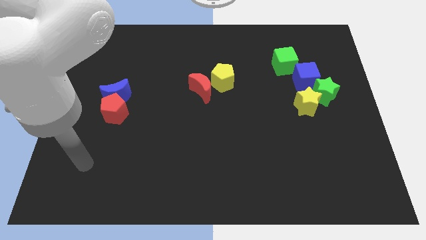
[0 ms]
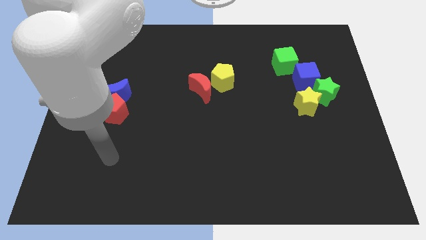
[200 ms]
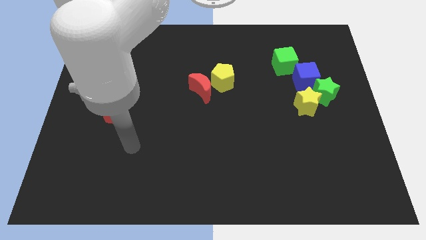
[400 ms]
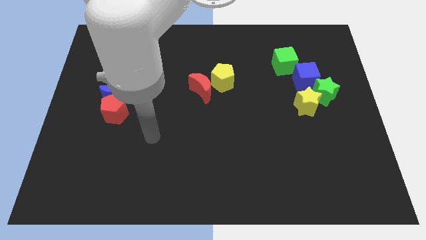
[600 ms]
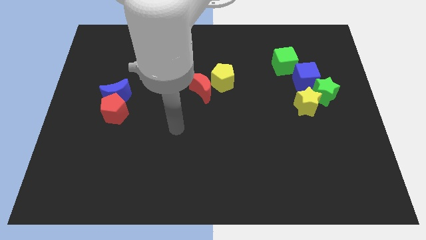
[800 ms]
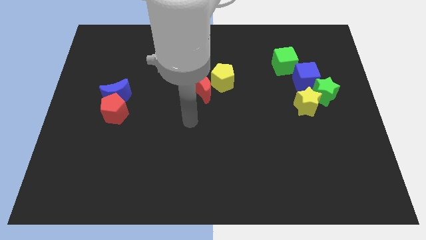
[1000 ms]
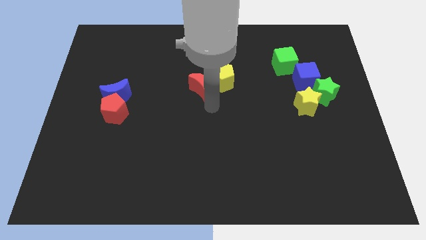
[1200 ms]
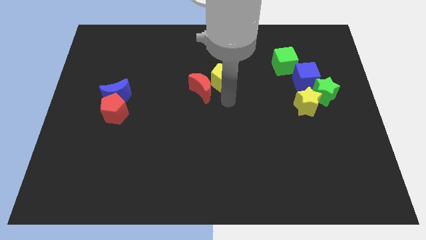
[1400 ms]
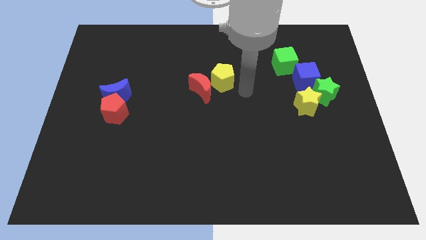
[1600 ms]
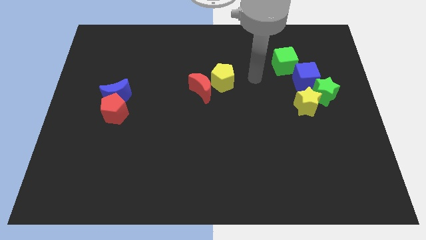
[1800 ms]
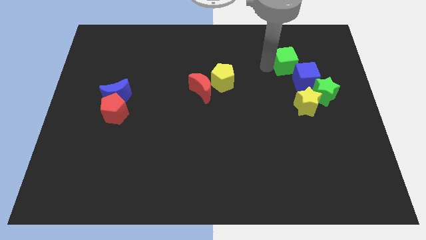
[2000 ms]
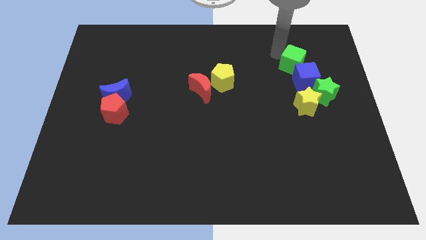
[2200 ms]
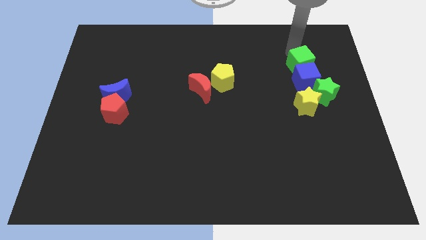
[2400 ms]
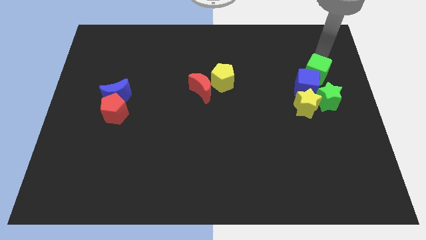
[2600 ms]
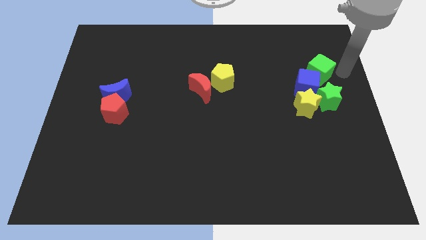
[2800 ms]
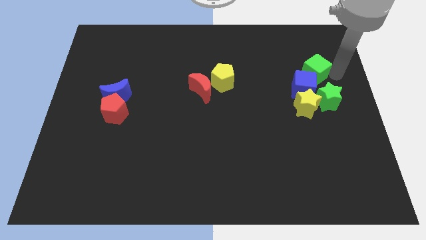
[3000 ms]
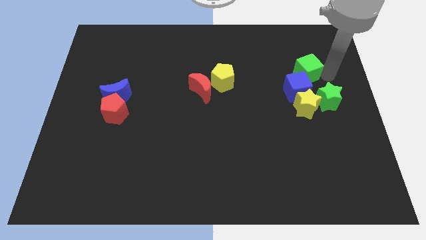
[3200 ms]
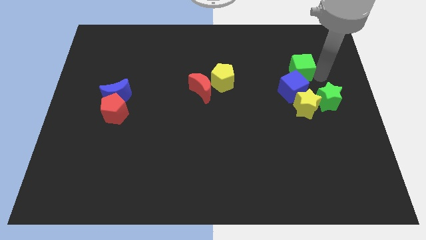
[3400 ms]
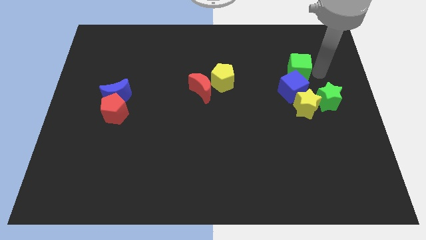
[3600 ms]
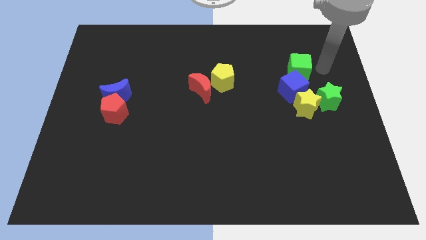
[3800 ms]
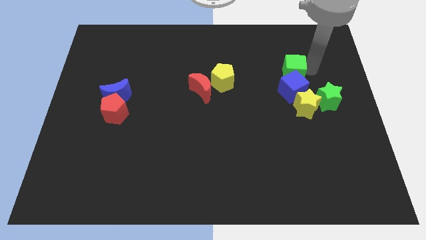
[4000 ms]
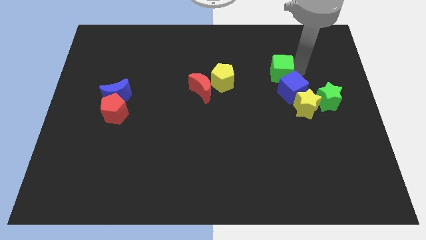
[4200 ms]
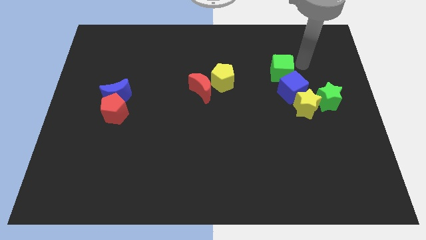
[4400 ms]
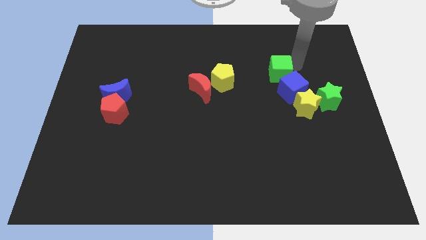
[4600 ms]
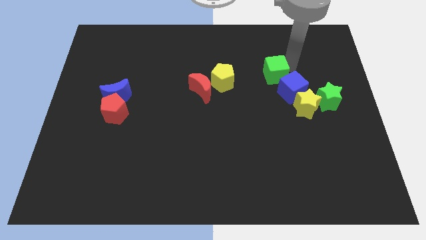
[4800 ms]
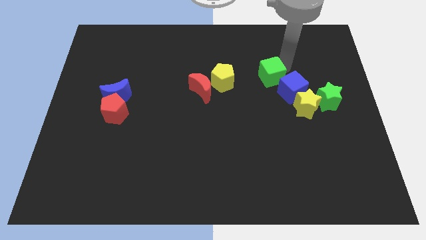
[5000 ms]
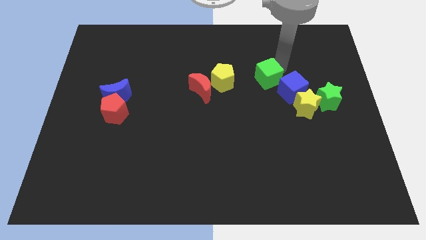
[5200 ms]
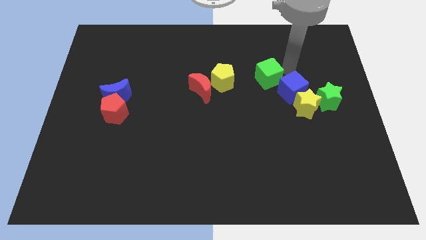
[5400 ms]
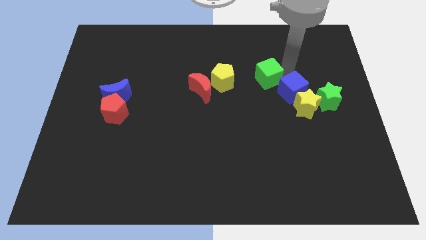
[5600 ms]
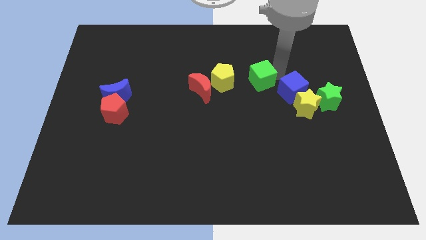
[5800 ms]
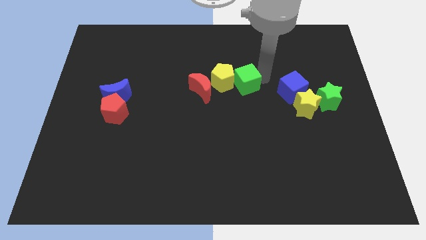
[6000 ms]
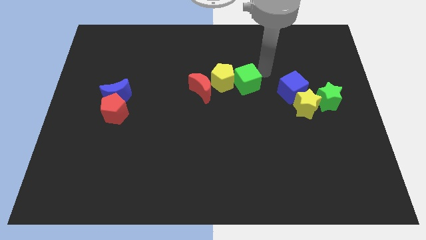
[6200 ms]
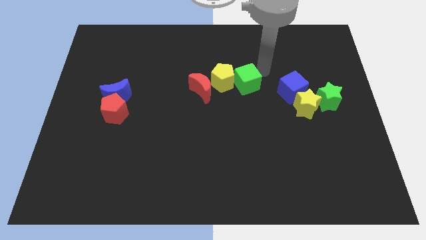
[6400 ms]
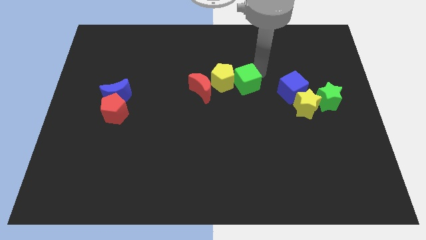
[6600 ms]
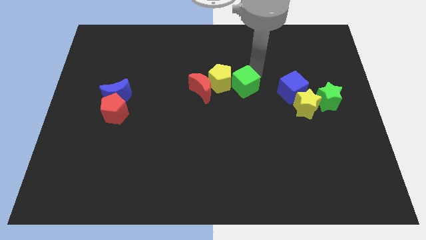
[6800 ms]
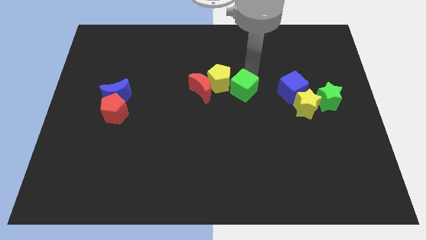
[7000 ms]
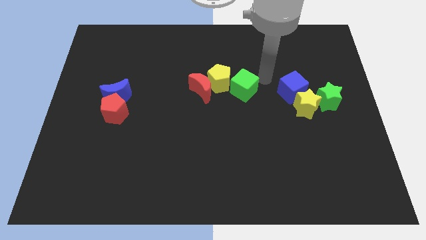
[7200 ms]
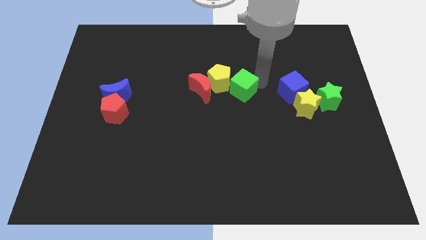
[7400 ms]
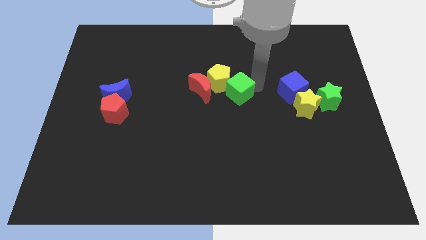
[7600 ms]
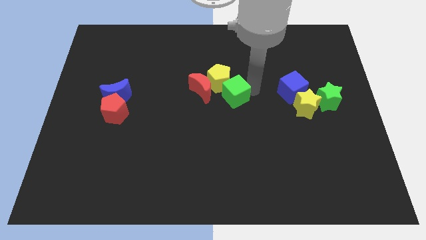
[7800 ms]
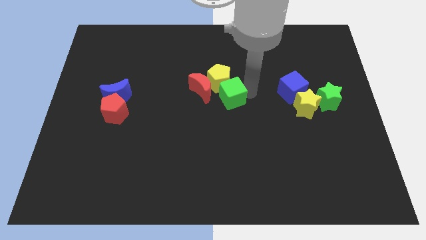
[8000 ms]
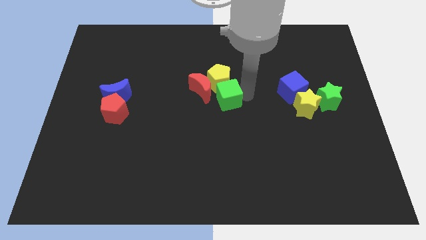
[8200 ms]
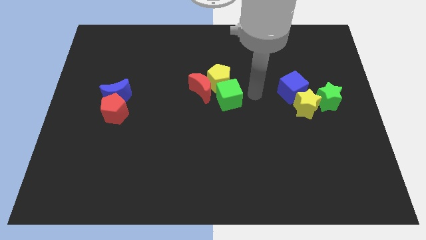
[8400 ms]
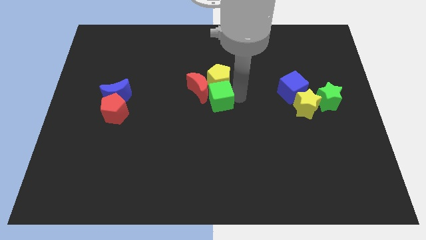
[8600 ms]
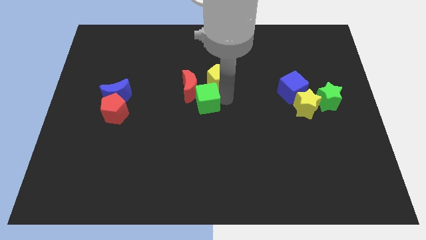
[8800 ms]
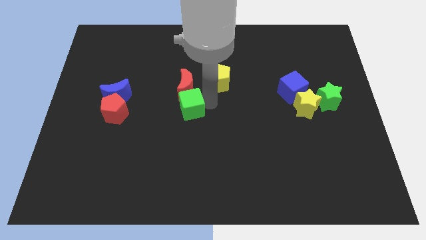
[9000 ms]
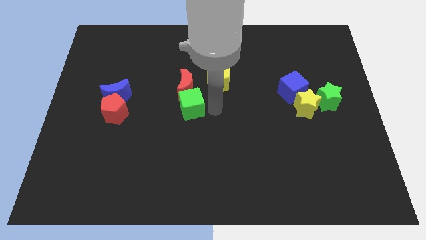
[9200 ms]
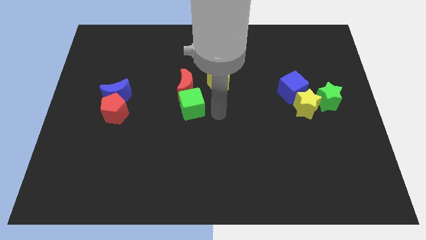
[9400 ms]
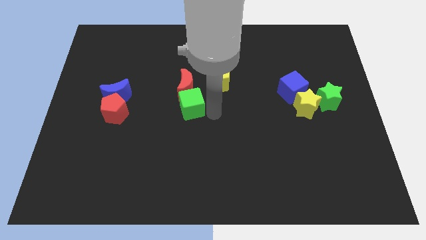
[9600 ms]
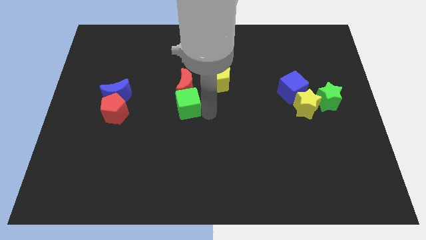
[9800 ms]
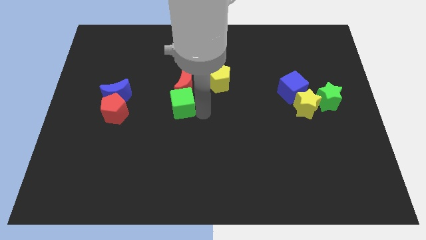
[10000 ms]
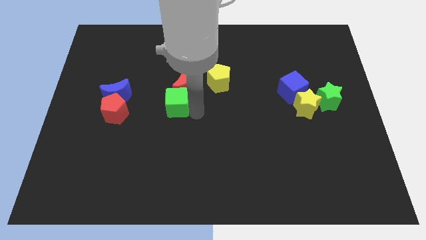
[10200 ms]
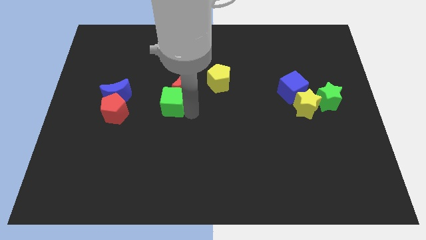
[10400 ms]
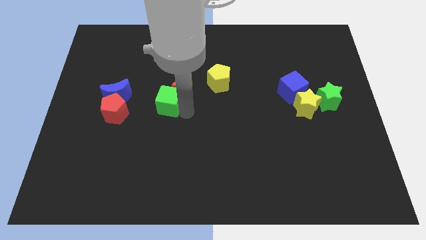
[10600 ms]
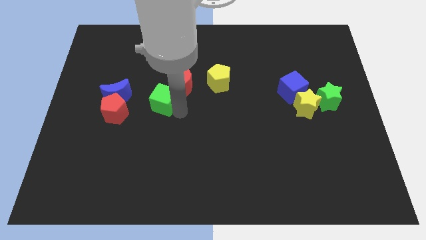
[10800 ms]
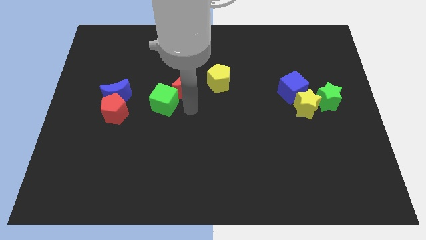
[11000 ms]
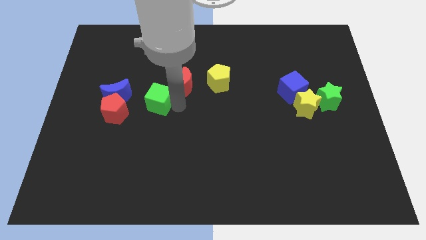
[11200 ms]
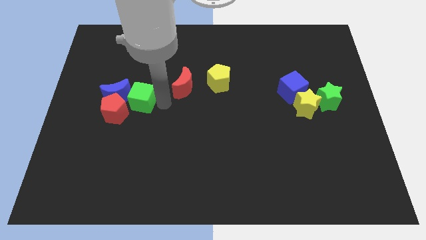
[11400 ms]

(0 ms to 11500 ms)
slide the green cube towards the blue moon

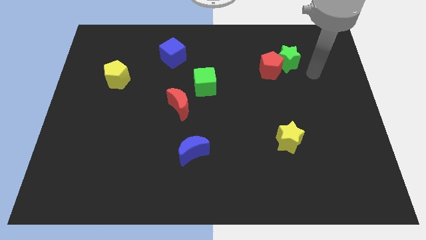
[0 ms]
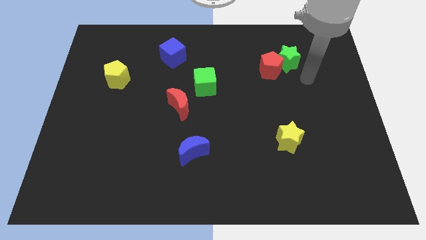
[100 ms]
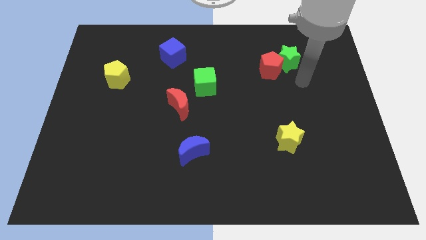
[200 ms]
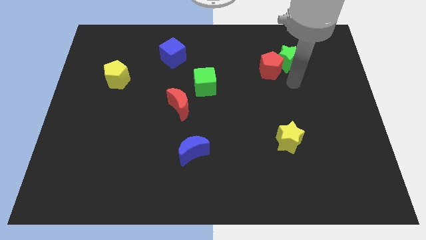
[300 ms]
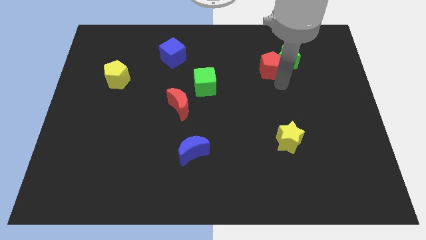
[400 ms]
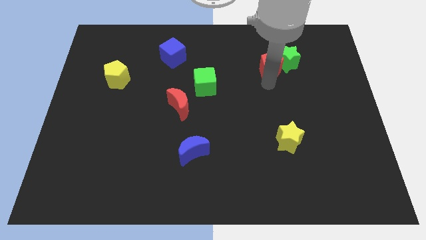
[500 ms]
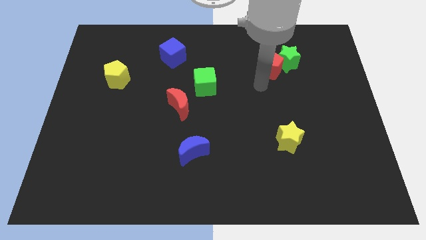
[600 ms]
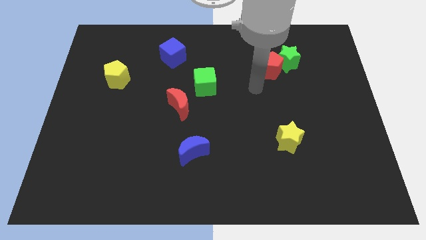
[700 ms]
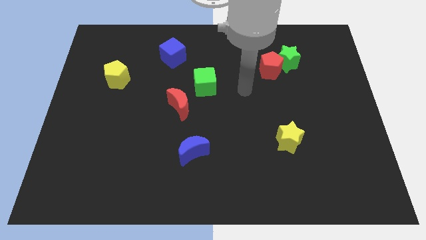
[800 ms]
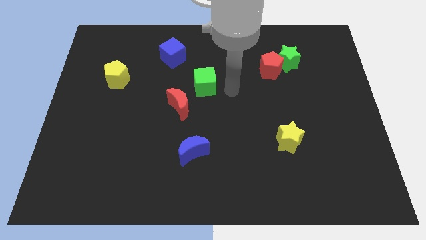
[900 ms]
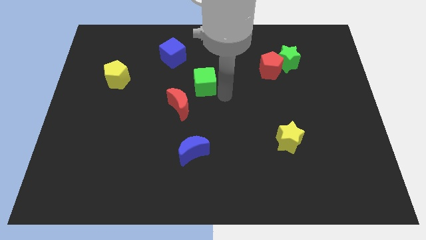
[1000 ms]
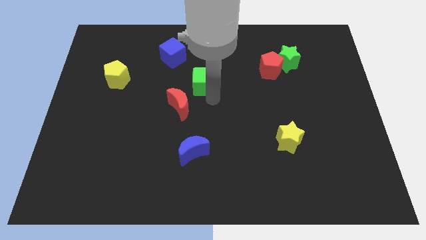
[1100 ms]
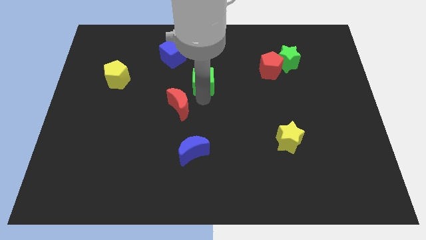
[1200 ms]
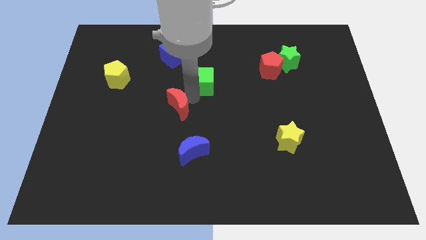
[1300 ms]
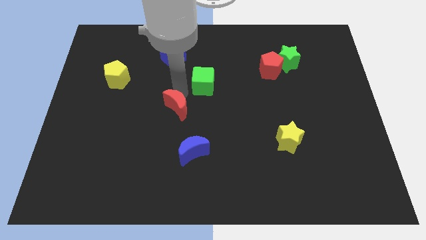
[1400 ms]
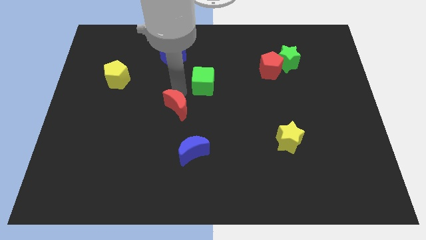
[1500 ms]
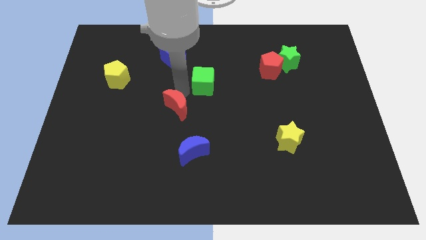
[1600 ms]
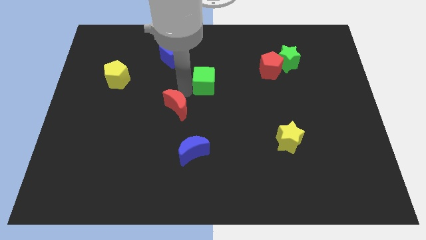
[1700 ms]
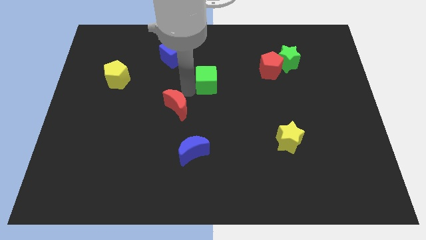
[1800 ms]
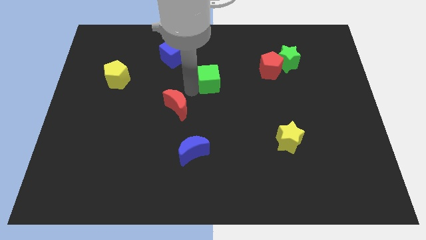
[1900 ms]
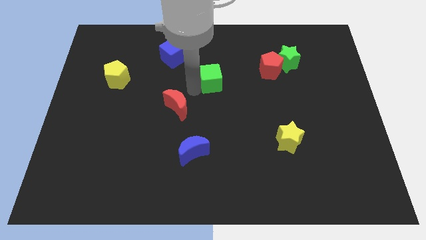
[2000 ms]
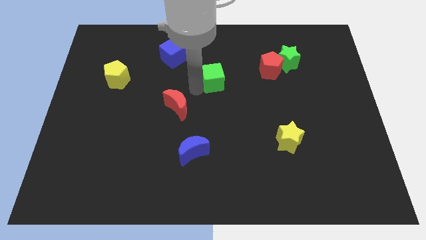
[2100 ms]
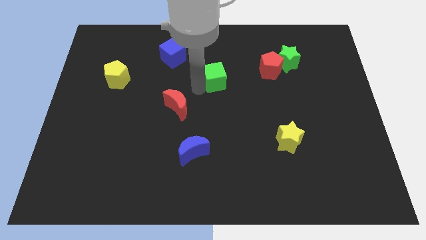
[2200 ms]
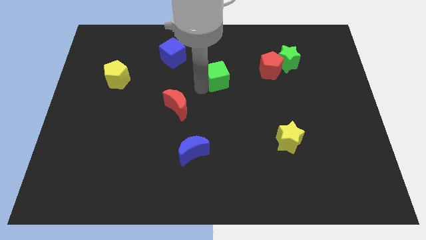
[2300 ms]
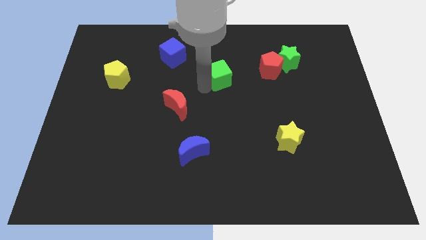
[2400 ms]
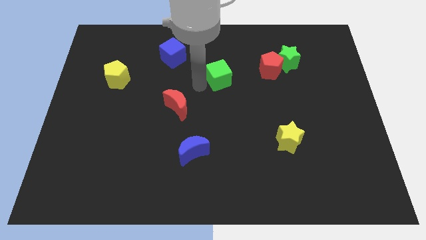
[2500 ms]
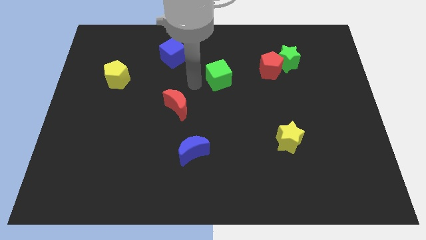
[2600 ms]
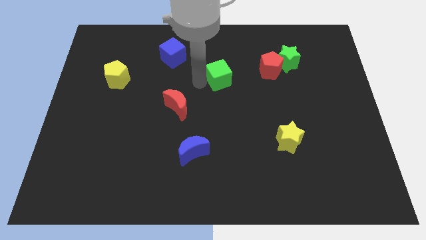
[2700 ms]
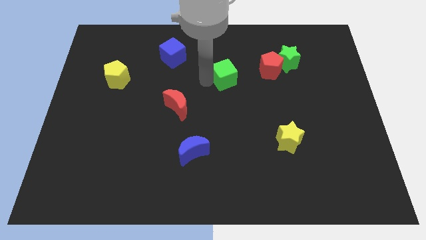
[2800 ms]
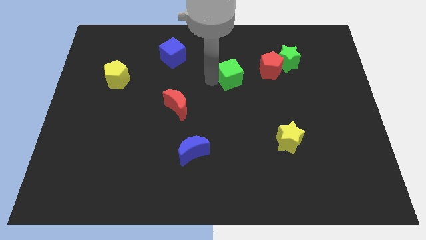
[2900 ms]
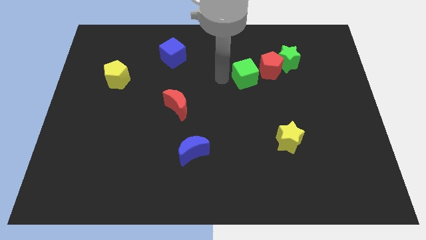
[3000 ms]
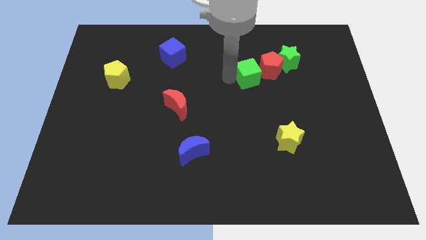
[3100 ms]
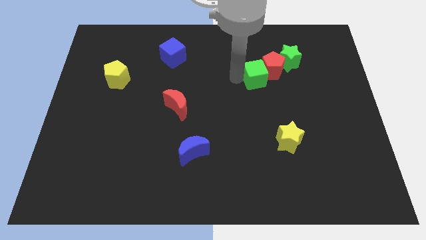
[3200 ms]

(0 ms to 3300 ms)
move the green cube next to the red pentagon
